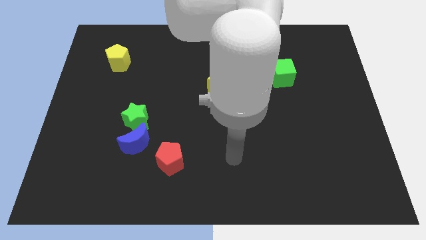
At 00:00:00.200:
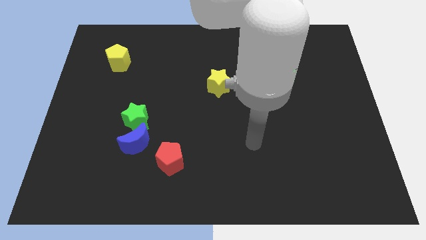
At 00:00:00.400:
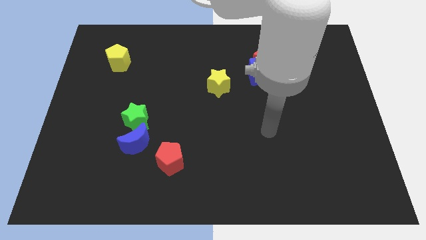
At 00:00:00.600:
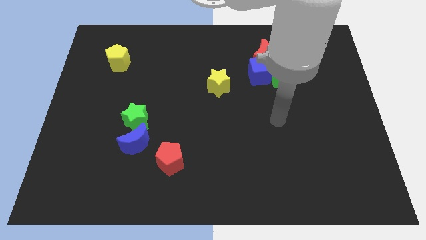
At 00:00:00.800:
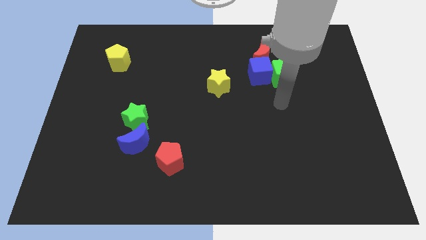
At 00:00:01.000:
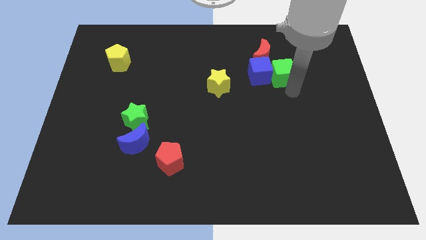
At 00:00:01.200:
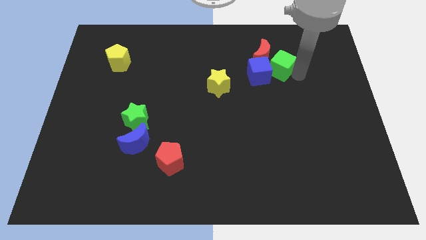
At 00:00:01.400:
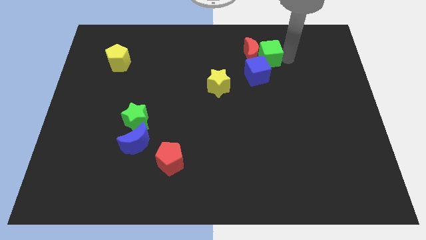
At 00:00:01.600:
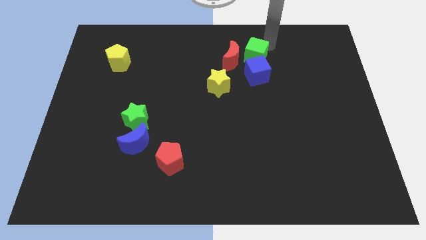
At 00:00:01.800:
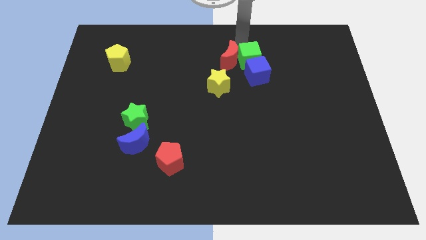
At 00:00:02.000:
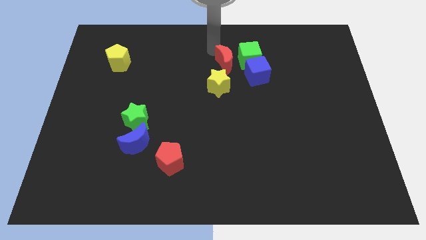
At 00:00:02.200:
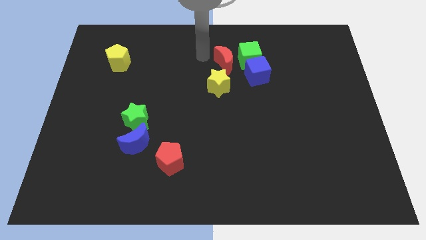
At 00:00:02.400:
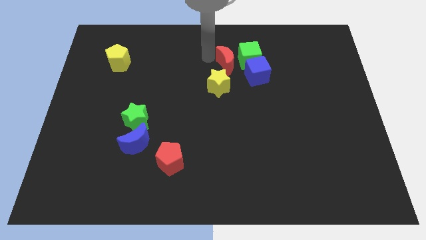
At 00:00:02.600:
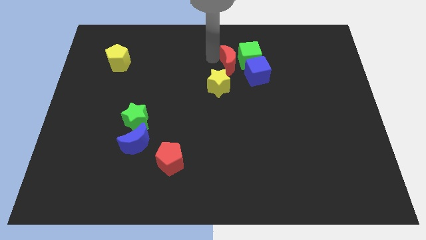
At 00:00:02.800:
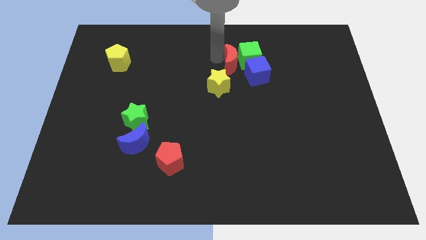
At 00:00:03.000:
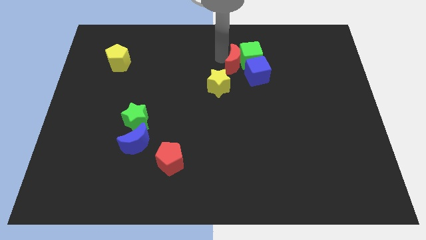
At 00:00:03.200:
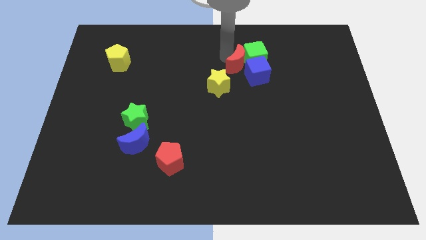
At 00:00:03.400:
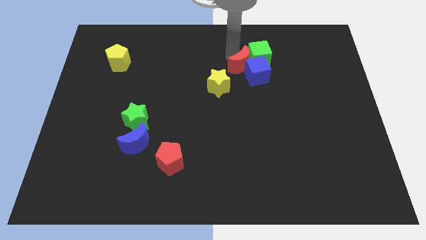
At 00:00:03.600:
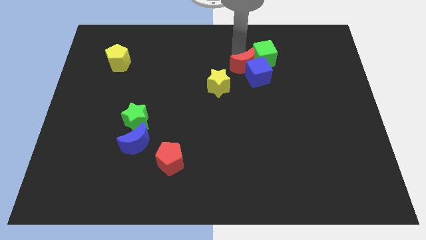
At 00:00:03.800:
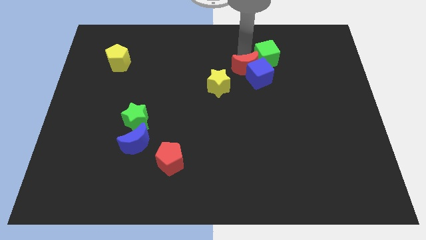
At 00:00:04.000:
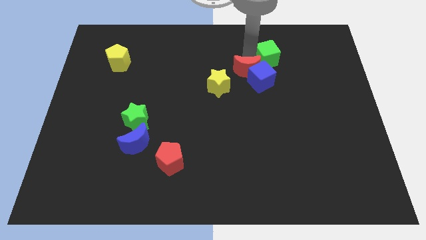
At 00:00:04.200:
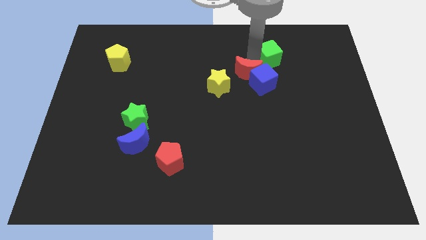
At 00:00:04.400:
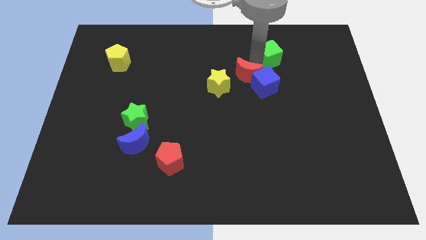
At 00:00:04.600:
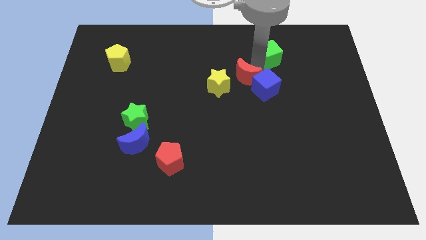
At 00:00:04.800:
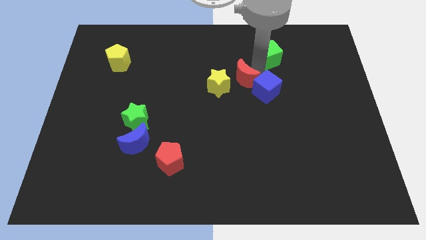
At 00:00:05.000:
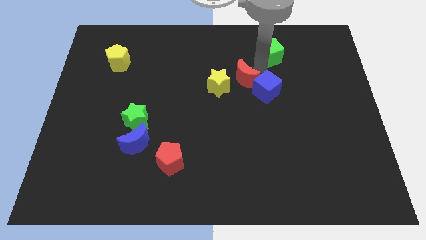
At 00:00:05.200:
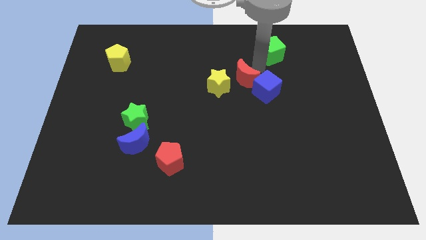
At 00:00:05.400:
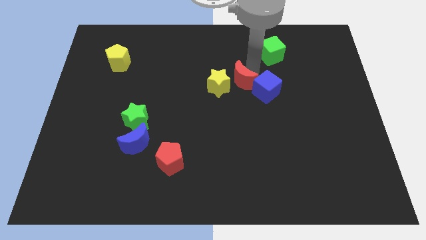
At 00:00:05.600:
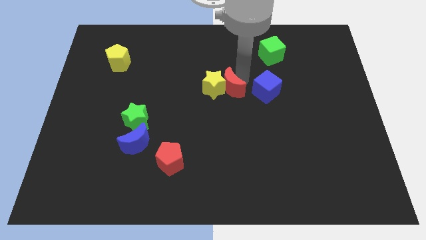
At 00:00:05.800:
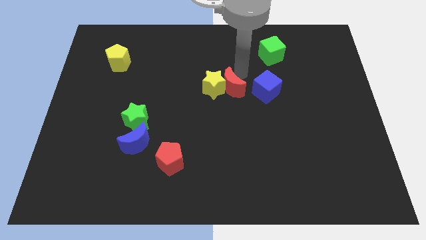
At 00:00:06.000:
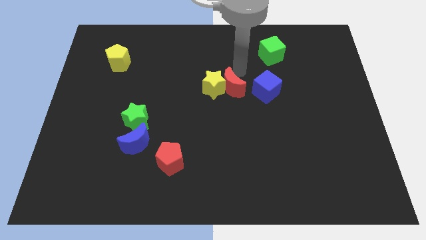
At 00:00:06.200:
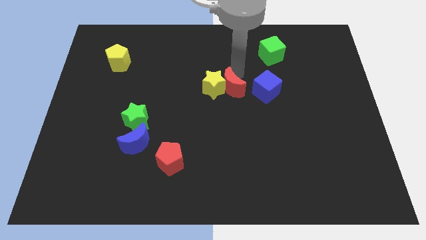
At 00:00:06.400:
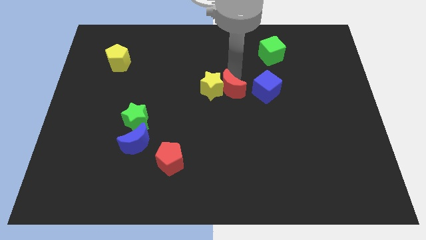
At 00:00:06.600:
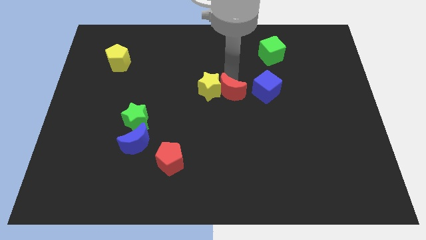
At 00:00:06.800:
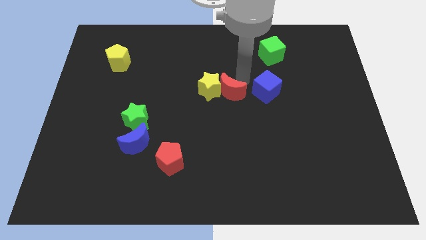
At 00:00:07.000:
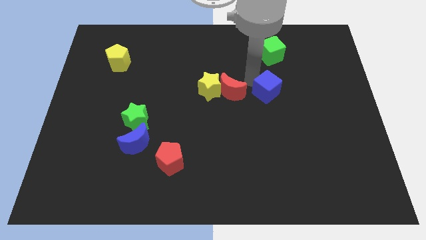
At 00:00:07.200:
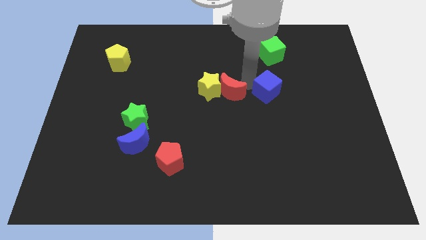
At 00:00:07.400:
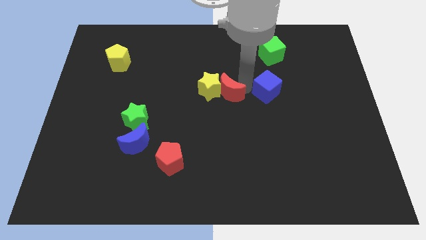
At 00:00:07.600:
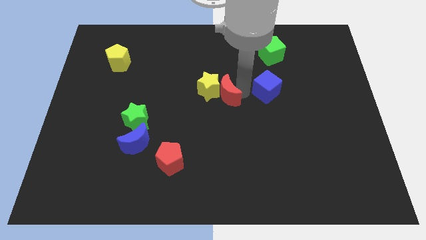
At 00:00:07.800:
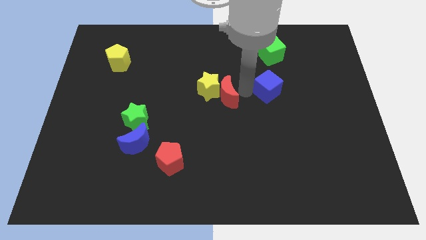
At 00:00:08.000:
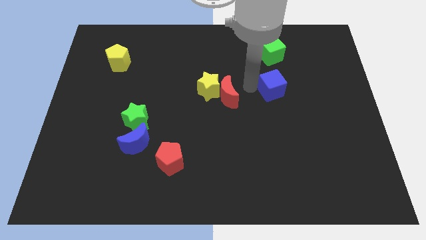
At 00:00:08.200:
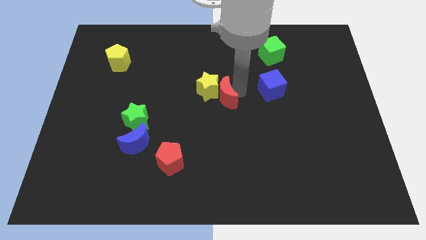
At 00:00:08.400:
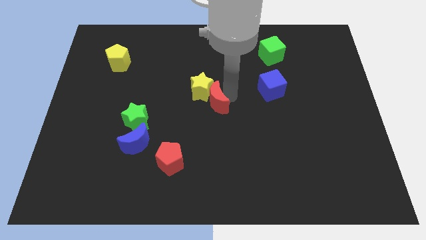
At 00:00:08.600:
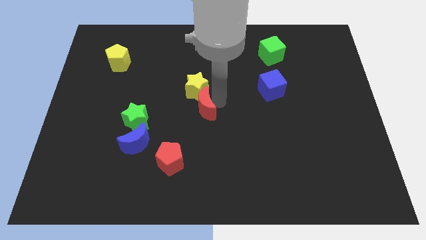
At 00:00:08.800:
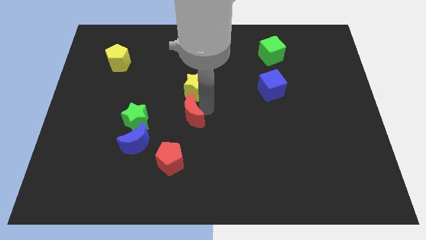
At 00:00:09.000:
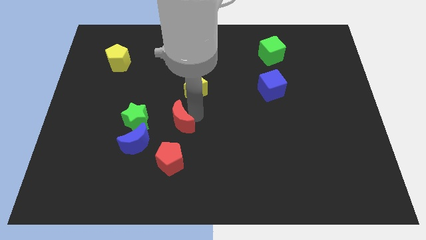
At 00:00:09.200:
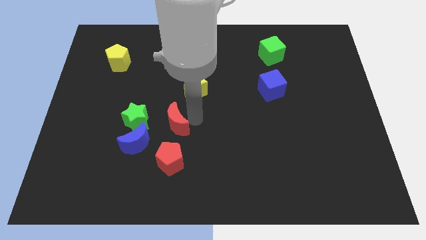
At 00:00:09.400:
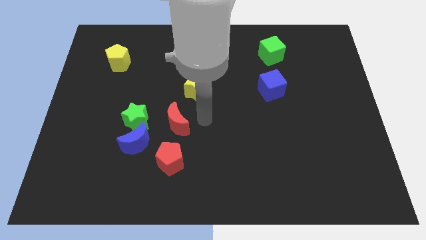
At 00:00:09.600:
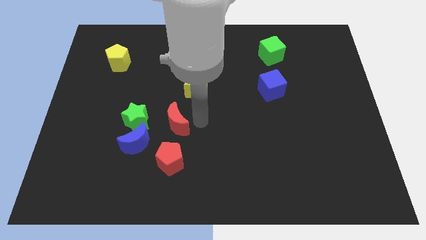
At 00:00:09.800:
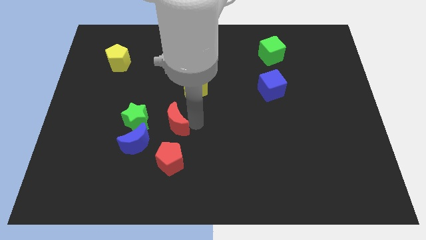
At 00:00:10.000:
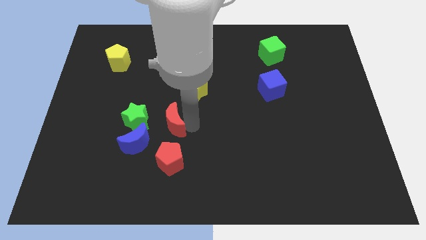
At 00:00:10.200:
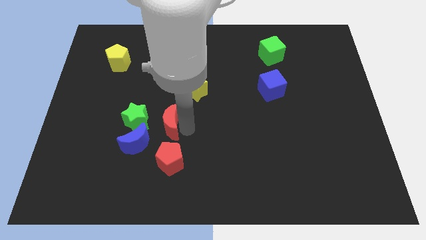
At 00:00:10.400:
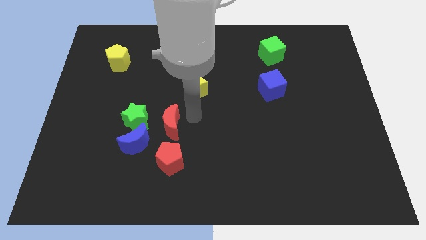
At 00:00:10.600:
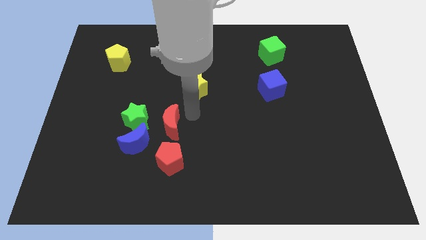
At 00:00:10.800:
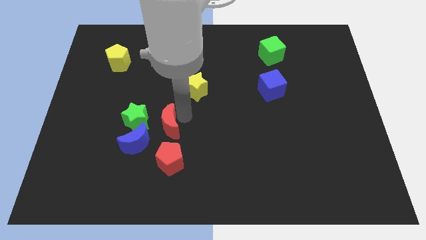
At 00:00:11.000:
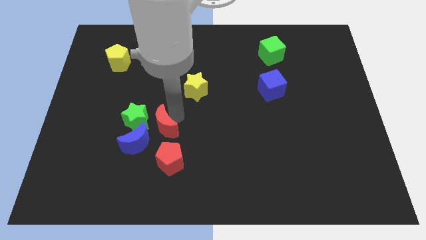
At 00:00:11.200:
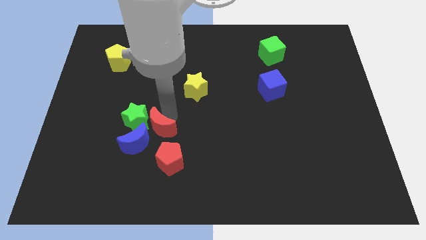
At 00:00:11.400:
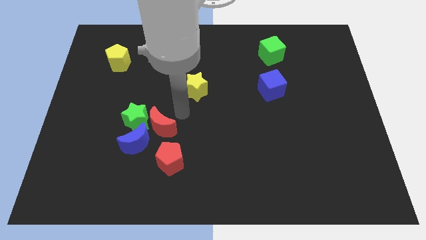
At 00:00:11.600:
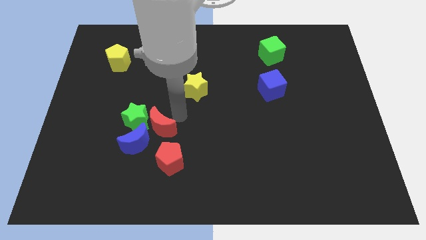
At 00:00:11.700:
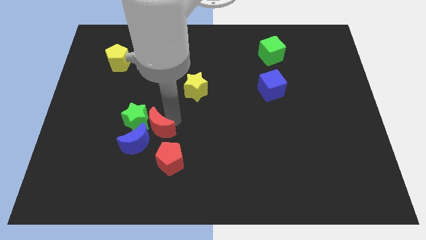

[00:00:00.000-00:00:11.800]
slide the red moon close to the blue moon

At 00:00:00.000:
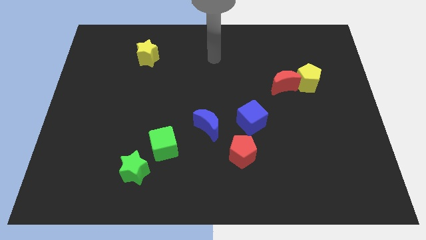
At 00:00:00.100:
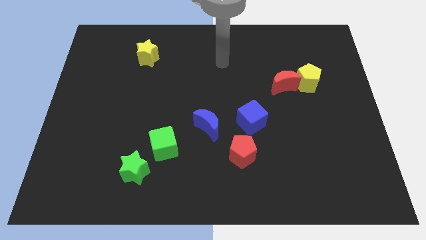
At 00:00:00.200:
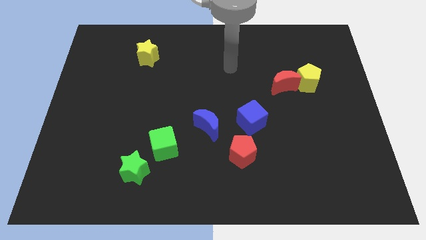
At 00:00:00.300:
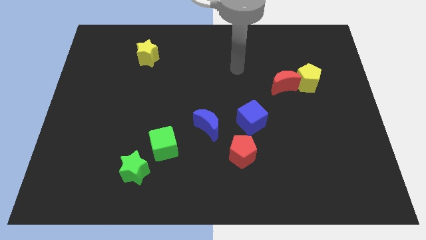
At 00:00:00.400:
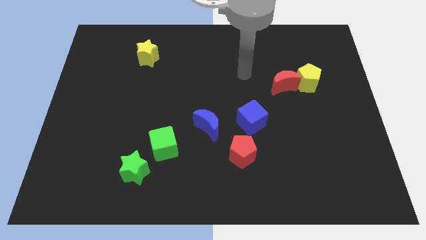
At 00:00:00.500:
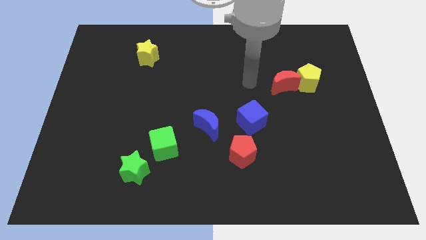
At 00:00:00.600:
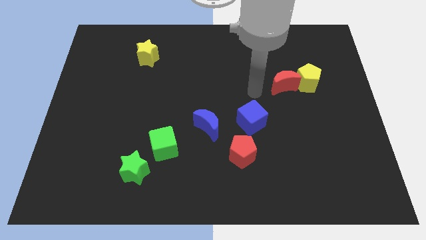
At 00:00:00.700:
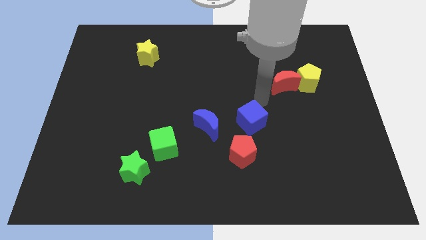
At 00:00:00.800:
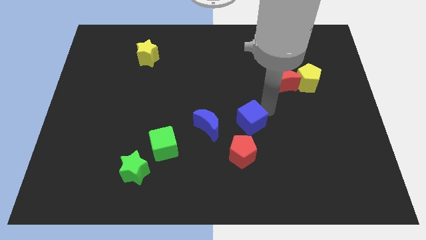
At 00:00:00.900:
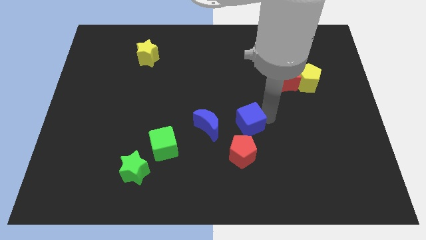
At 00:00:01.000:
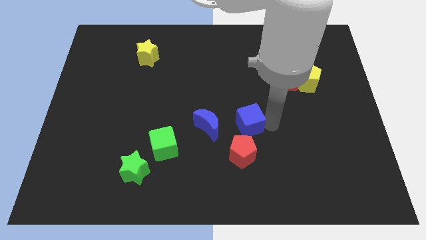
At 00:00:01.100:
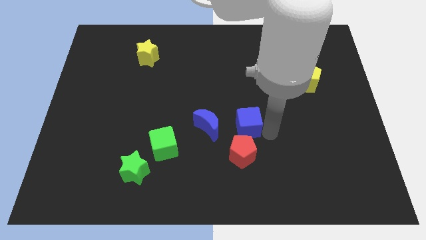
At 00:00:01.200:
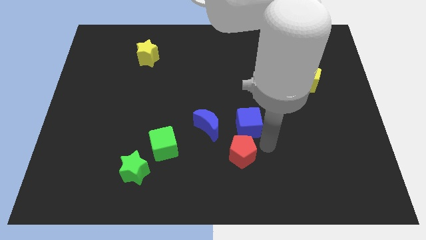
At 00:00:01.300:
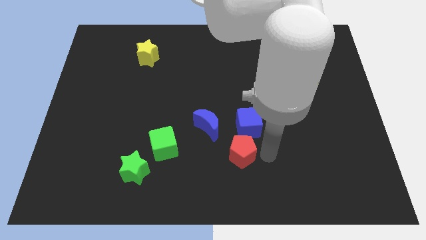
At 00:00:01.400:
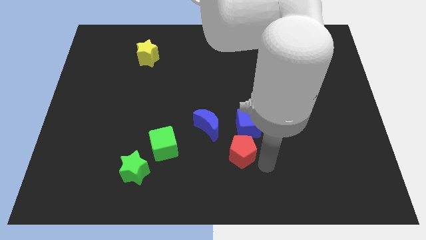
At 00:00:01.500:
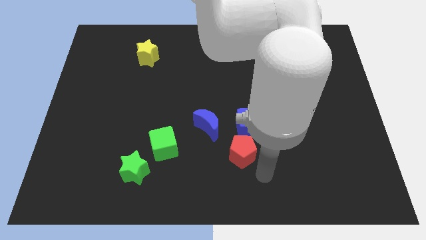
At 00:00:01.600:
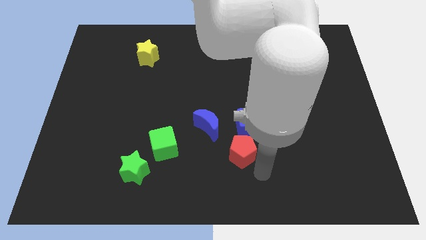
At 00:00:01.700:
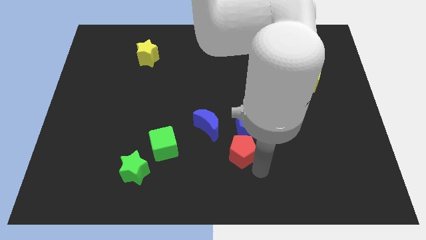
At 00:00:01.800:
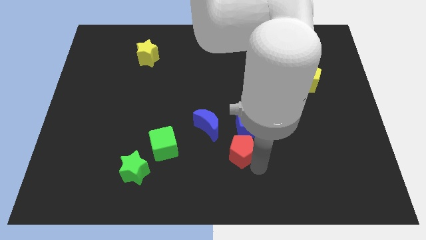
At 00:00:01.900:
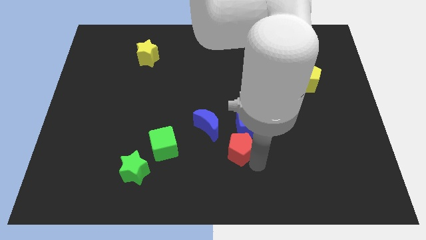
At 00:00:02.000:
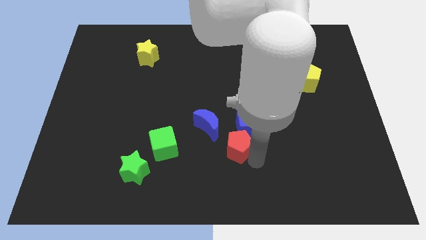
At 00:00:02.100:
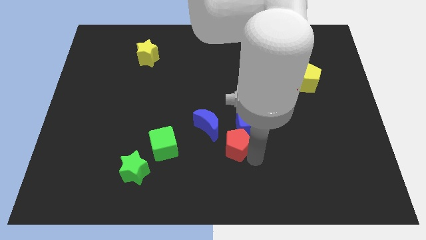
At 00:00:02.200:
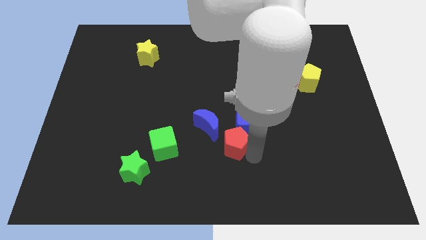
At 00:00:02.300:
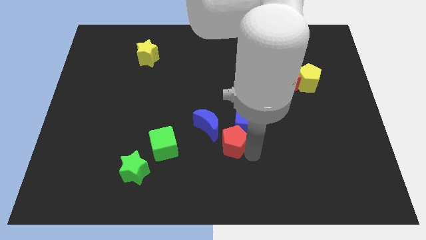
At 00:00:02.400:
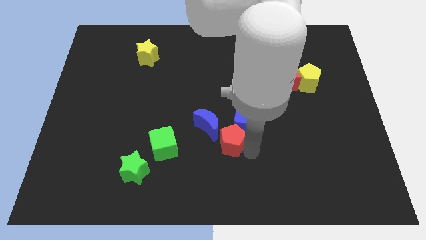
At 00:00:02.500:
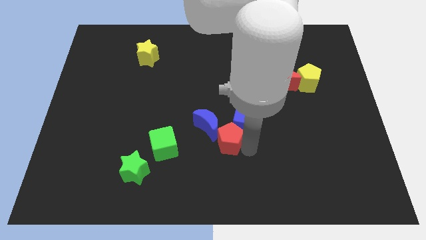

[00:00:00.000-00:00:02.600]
put the red pentagon towards the blue moon
